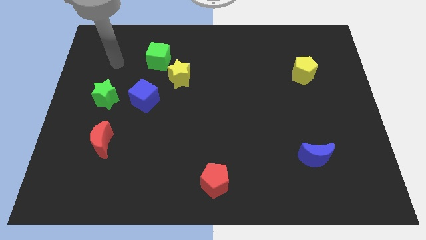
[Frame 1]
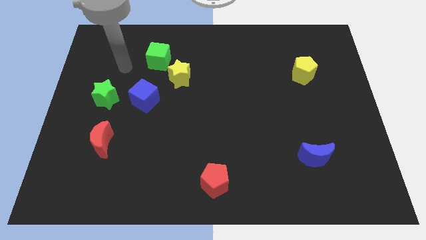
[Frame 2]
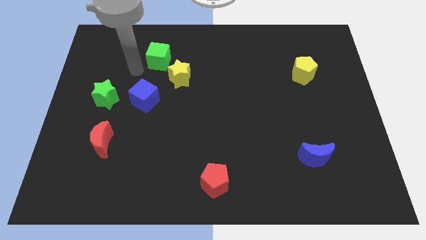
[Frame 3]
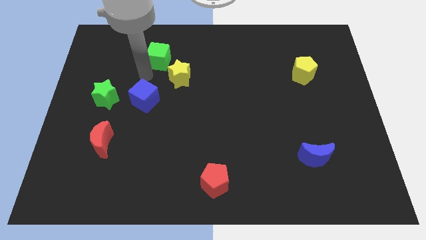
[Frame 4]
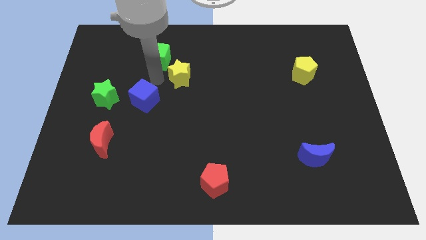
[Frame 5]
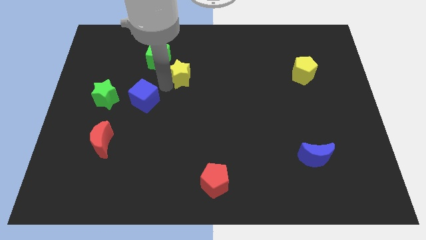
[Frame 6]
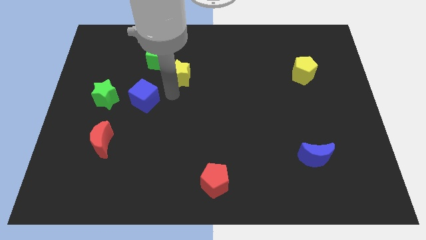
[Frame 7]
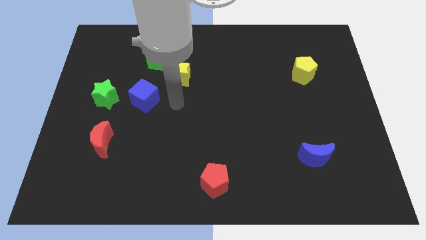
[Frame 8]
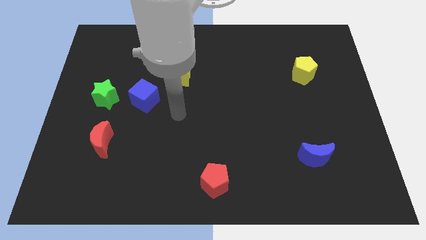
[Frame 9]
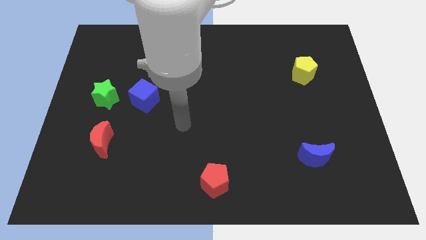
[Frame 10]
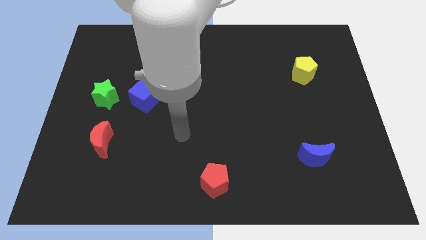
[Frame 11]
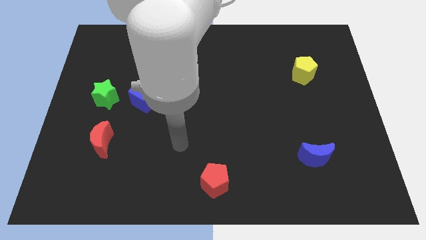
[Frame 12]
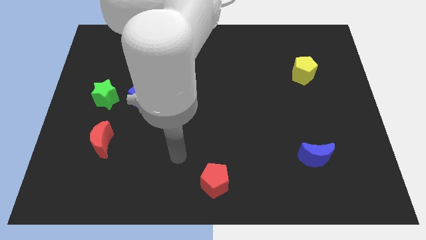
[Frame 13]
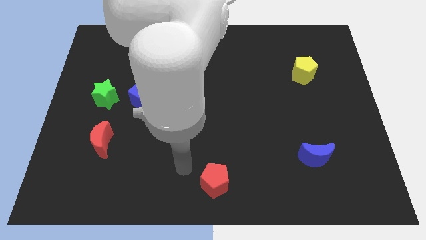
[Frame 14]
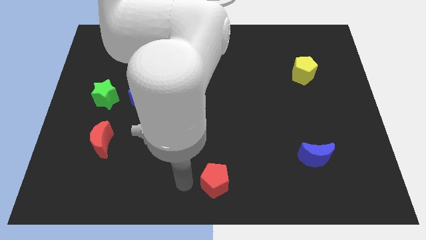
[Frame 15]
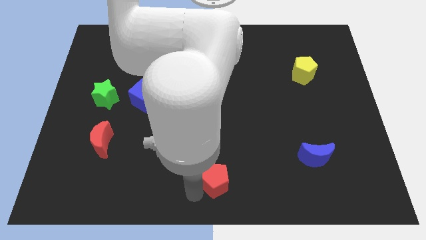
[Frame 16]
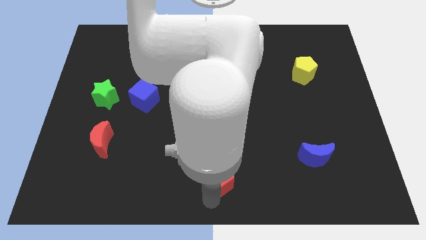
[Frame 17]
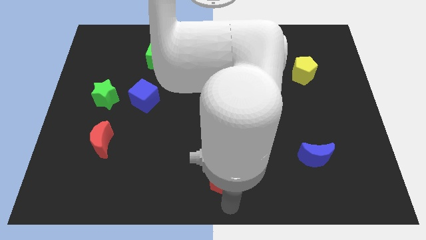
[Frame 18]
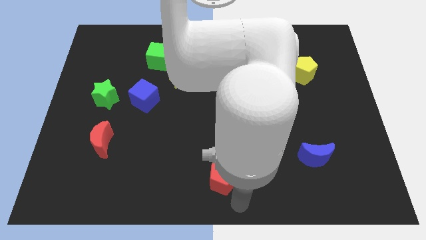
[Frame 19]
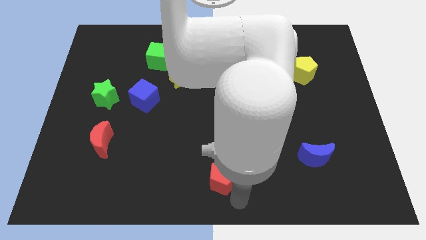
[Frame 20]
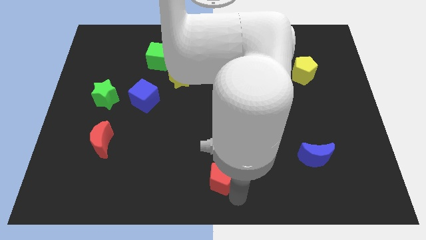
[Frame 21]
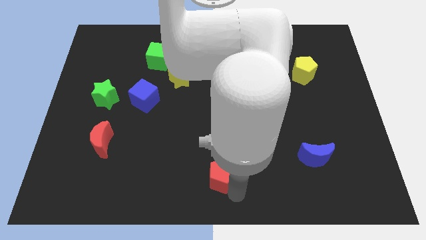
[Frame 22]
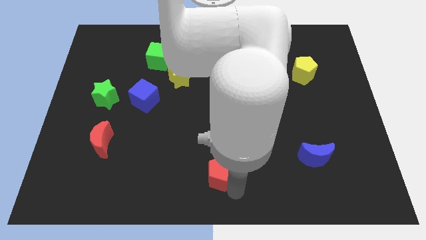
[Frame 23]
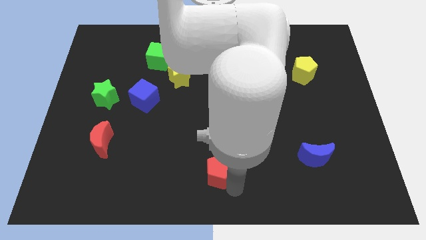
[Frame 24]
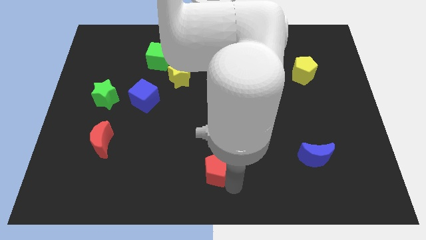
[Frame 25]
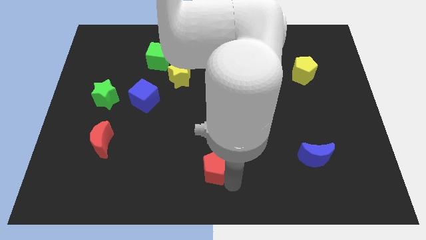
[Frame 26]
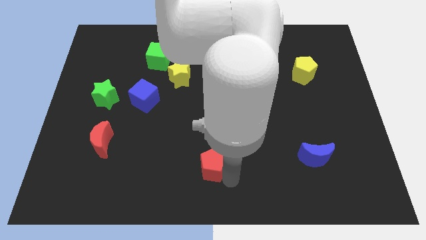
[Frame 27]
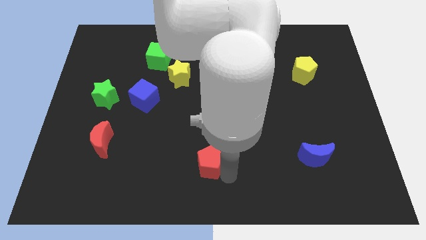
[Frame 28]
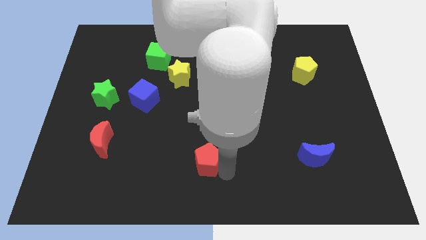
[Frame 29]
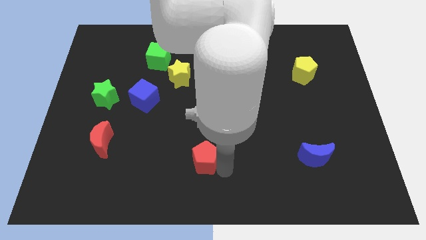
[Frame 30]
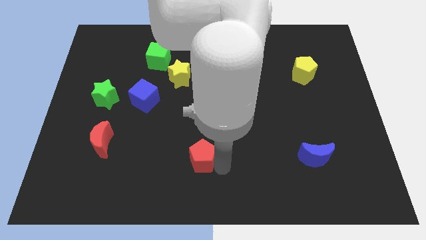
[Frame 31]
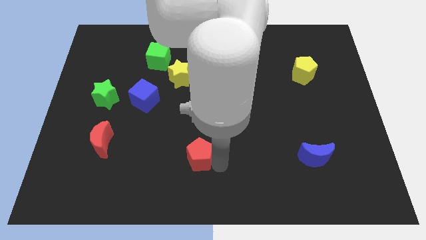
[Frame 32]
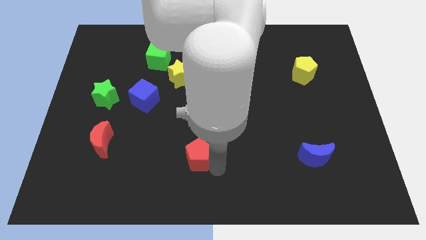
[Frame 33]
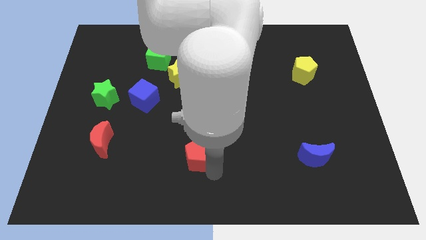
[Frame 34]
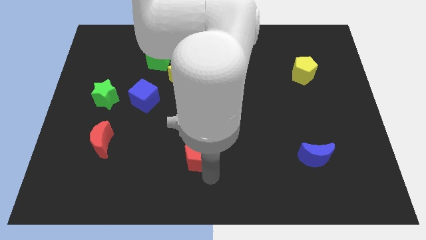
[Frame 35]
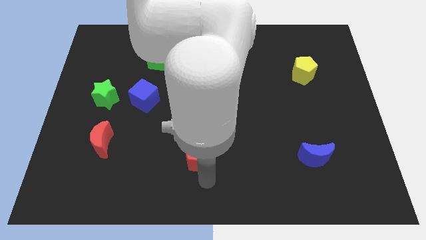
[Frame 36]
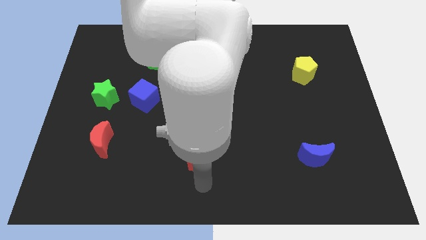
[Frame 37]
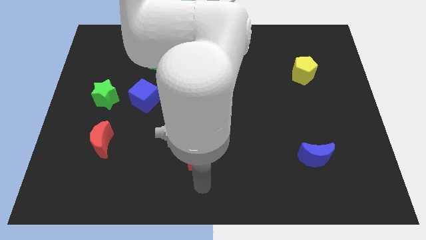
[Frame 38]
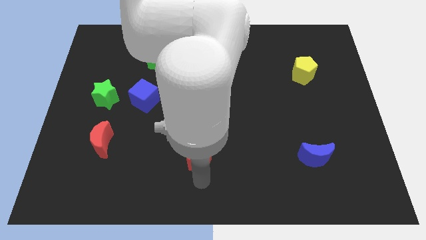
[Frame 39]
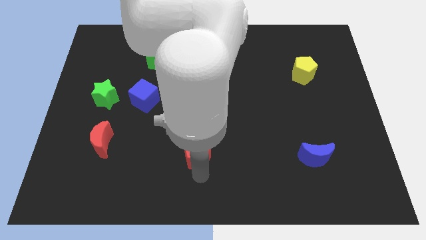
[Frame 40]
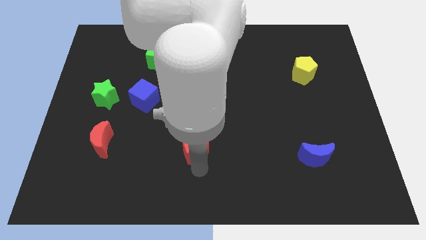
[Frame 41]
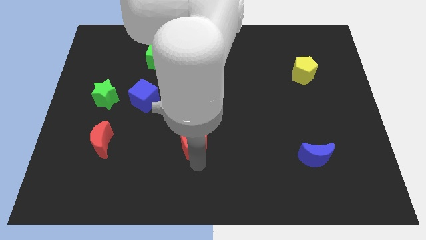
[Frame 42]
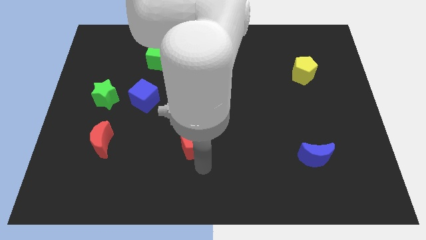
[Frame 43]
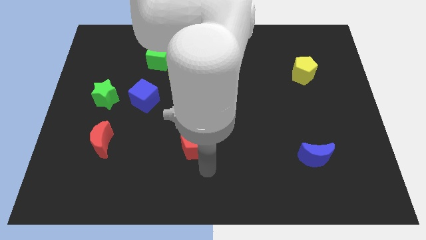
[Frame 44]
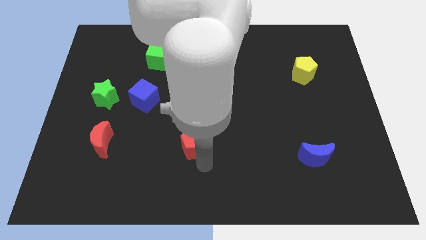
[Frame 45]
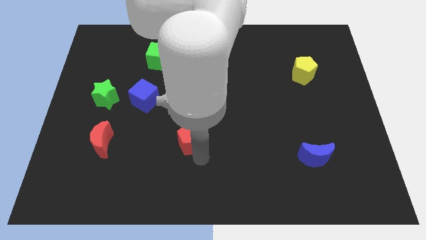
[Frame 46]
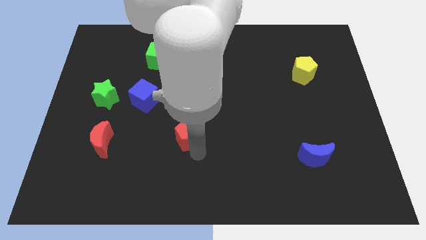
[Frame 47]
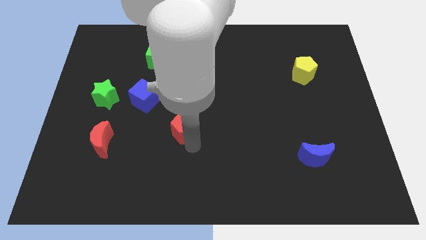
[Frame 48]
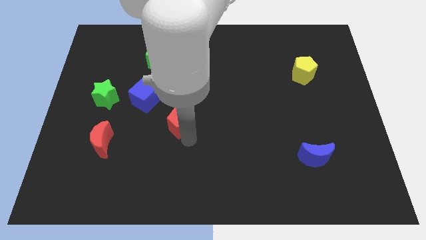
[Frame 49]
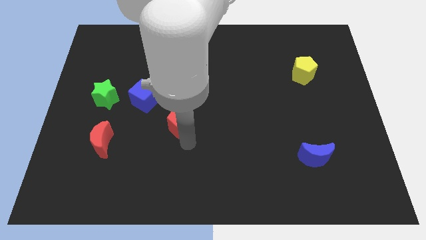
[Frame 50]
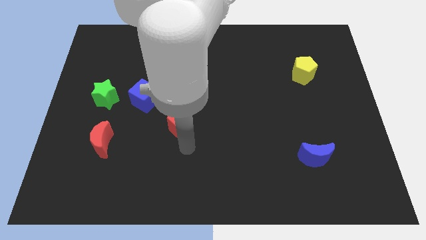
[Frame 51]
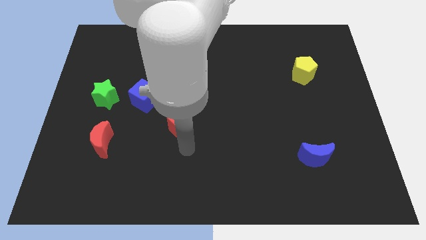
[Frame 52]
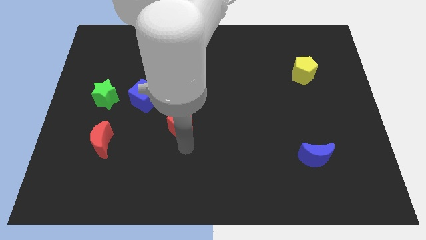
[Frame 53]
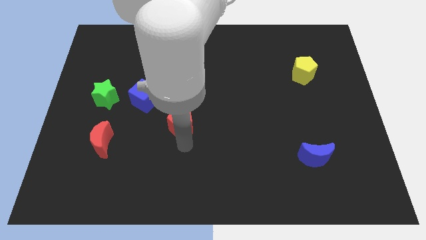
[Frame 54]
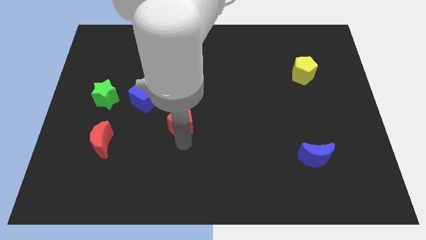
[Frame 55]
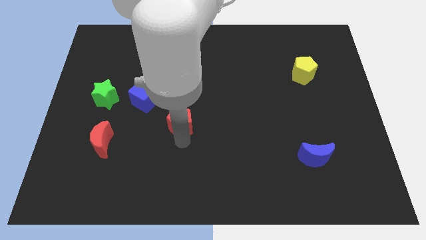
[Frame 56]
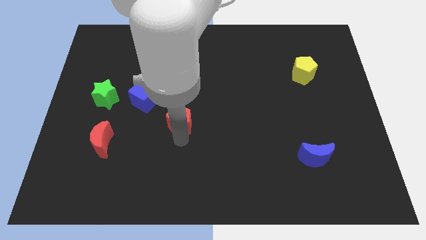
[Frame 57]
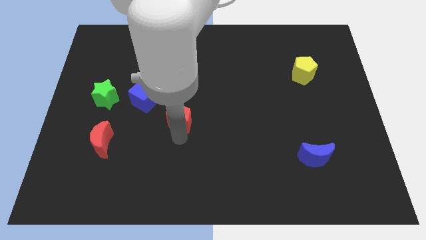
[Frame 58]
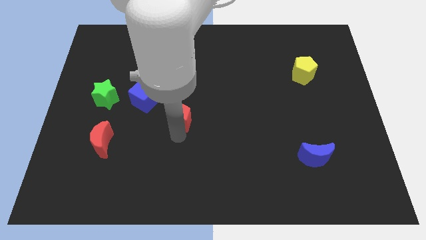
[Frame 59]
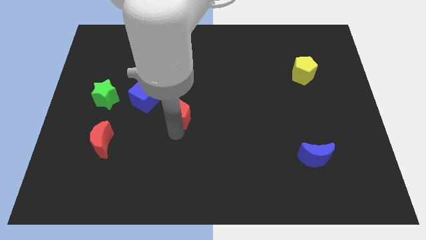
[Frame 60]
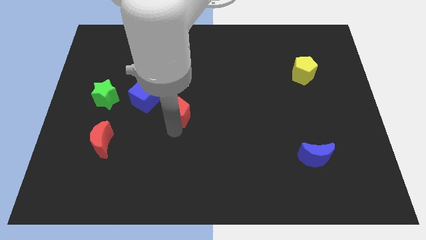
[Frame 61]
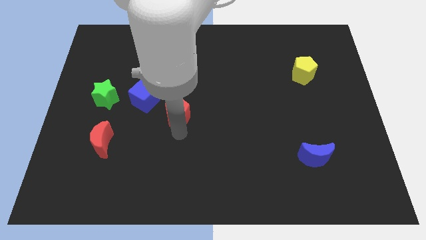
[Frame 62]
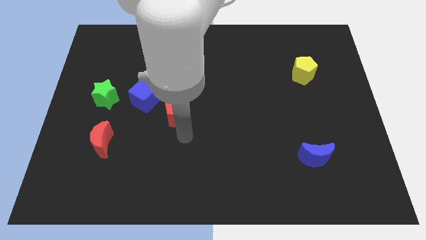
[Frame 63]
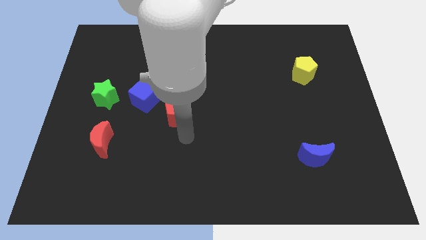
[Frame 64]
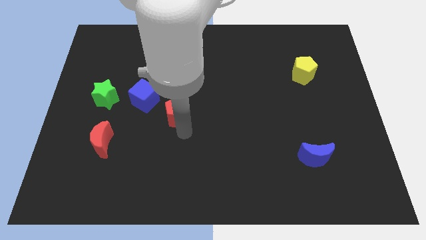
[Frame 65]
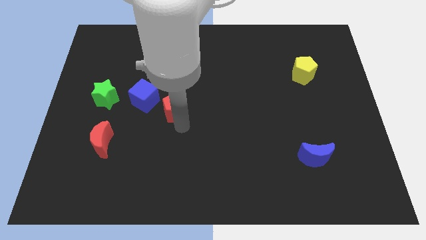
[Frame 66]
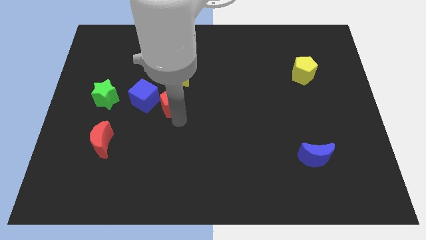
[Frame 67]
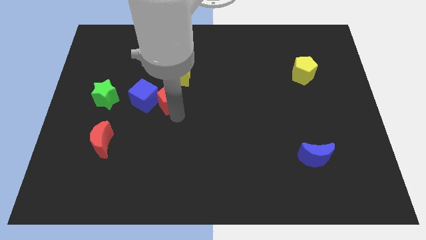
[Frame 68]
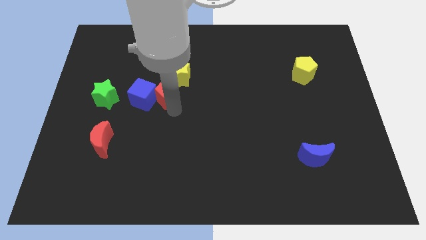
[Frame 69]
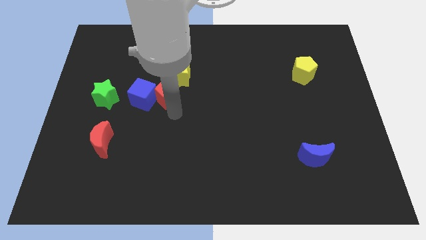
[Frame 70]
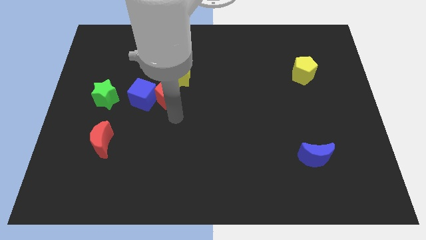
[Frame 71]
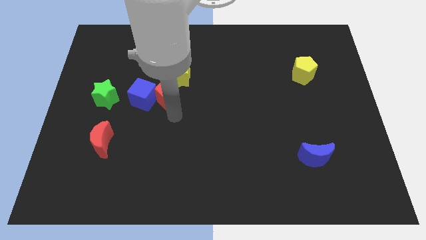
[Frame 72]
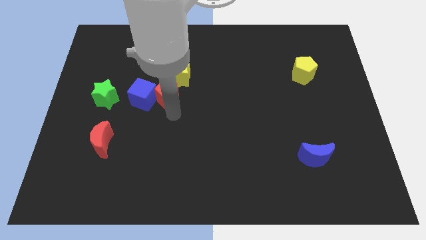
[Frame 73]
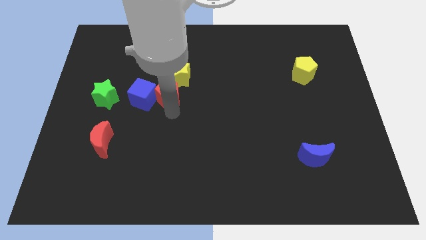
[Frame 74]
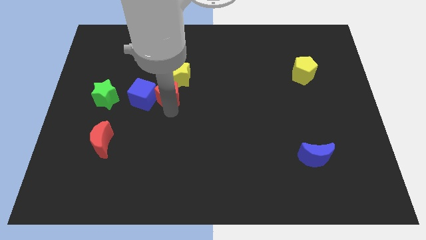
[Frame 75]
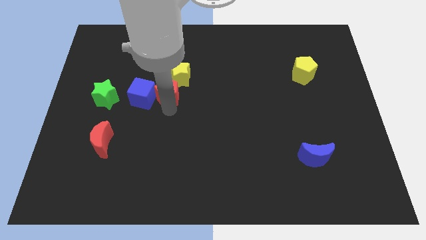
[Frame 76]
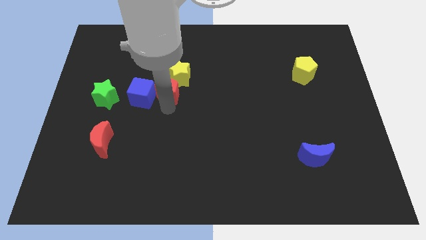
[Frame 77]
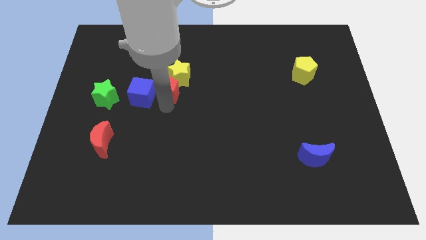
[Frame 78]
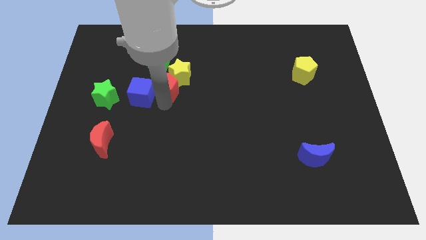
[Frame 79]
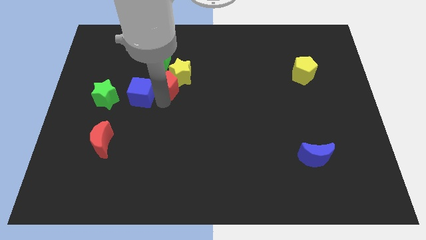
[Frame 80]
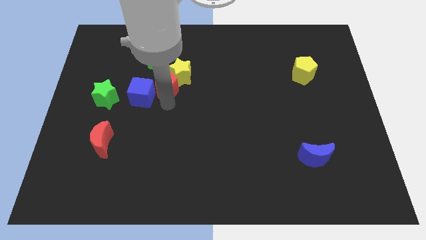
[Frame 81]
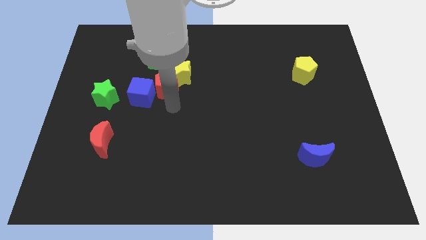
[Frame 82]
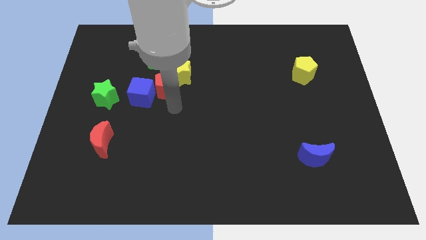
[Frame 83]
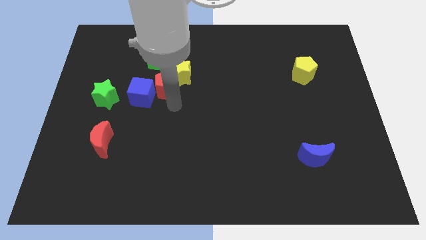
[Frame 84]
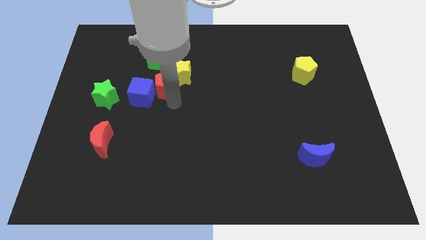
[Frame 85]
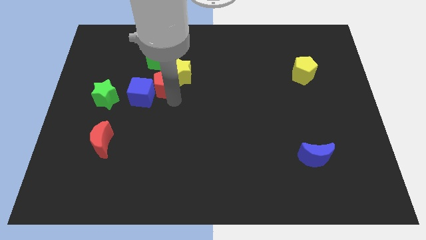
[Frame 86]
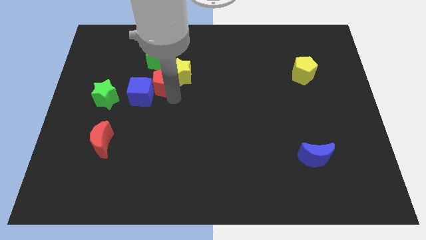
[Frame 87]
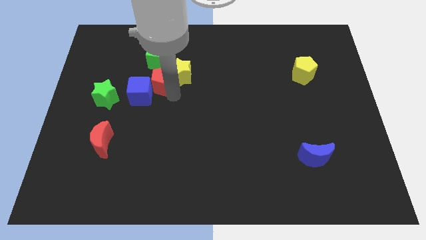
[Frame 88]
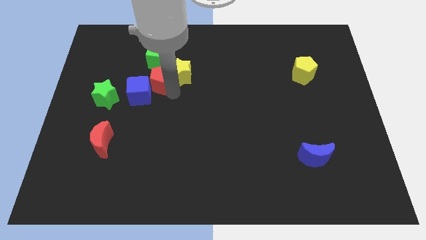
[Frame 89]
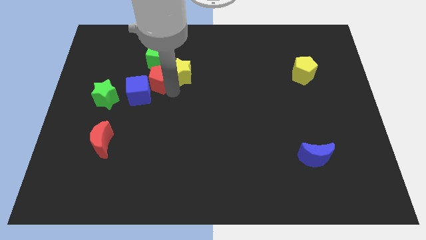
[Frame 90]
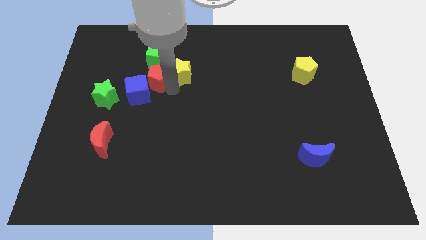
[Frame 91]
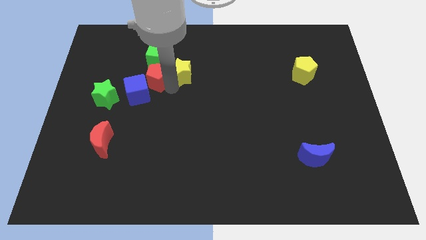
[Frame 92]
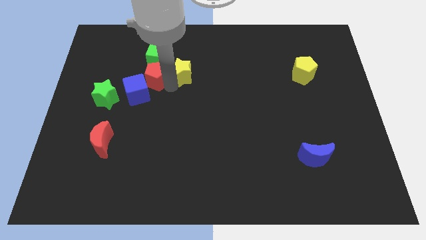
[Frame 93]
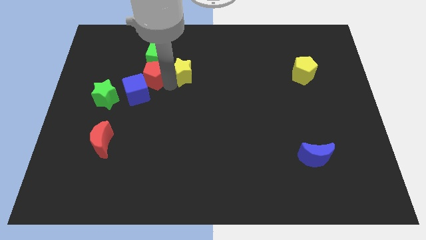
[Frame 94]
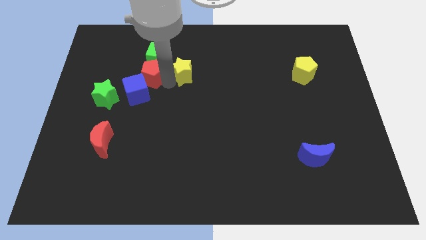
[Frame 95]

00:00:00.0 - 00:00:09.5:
put the red pentagon to the green cube
